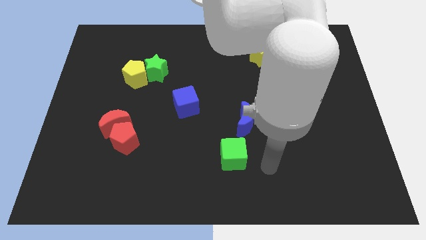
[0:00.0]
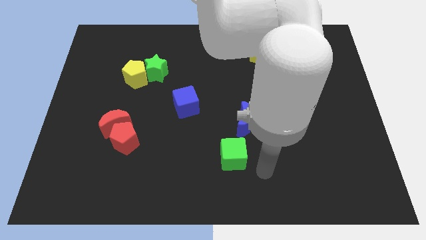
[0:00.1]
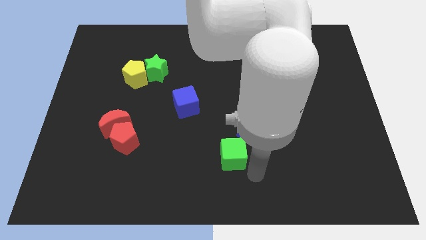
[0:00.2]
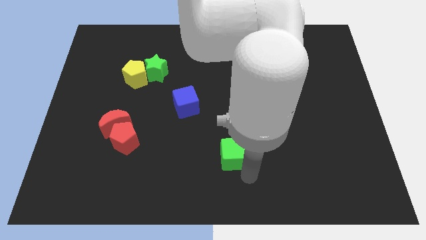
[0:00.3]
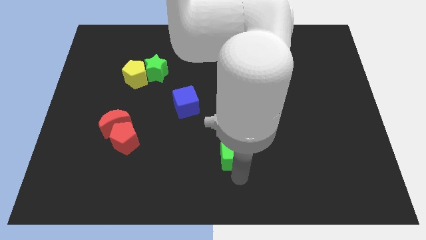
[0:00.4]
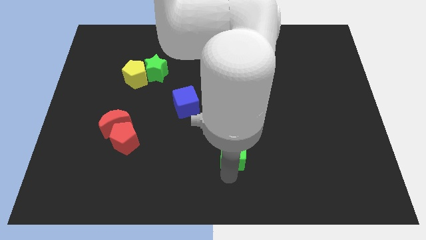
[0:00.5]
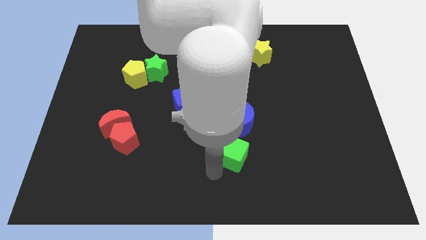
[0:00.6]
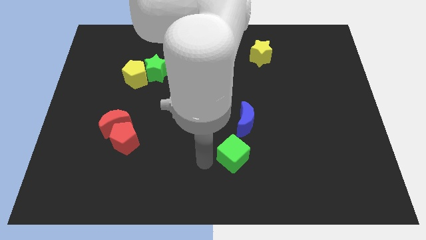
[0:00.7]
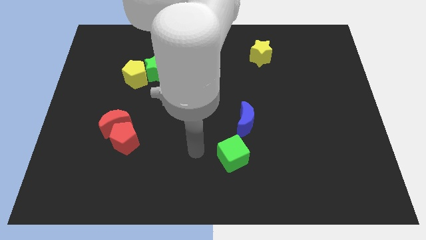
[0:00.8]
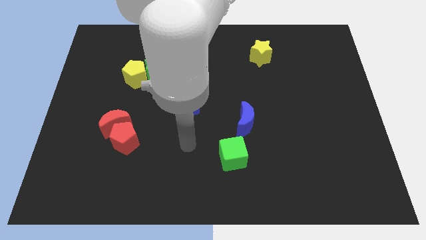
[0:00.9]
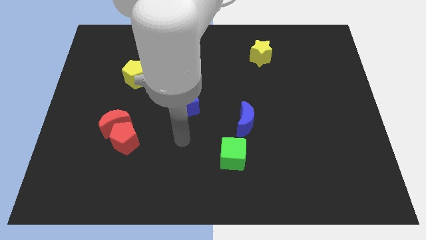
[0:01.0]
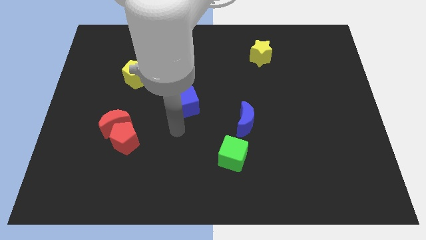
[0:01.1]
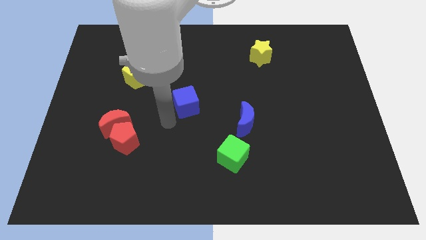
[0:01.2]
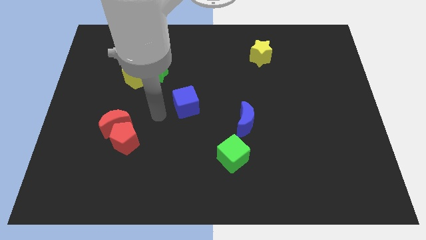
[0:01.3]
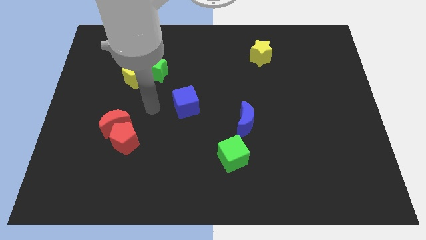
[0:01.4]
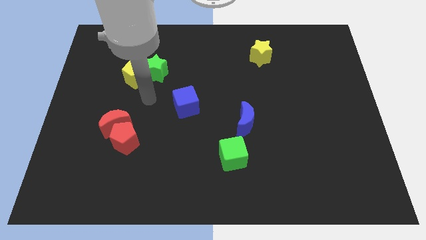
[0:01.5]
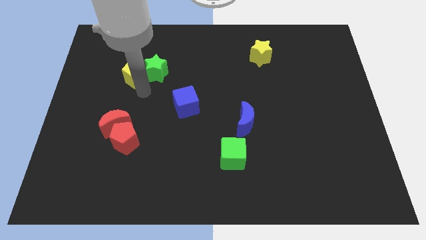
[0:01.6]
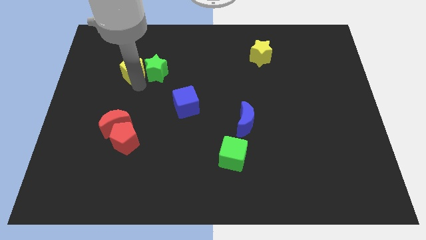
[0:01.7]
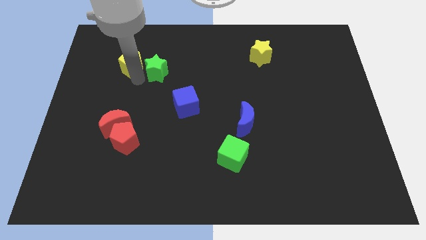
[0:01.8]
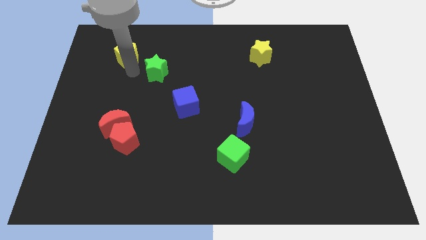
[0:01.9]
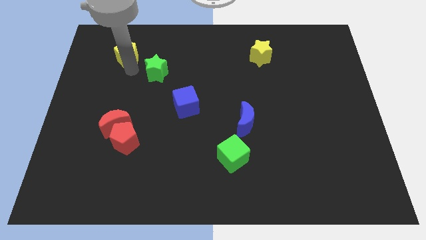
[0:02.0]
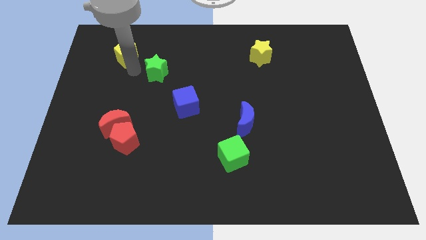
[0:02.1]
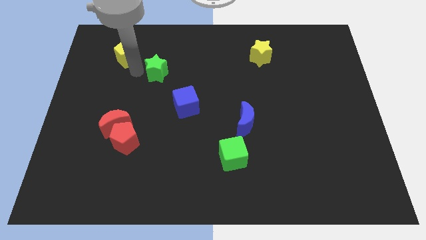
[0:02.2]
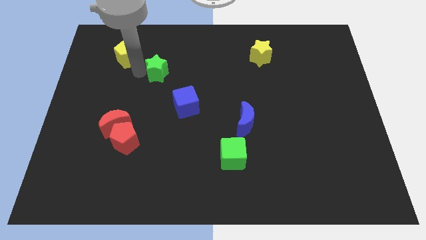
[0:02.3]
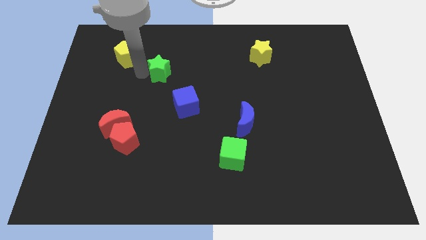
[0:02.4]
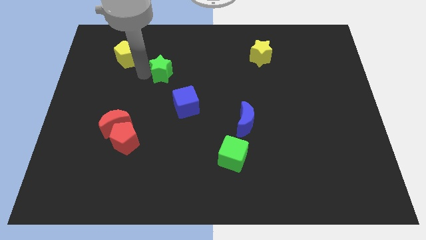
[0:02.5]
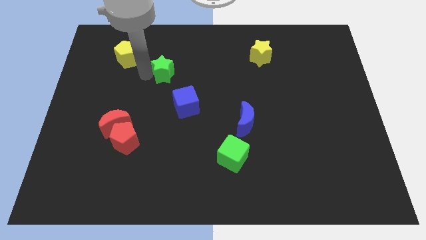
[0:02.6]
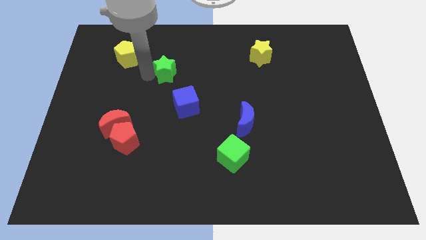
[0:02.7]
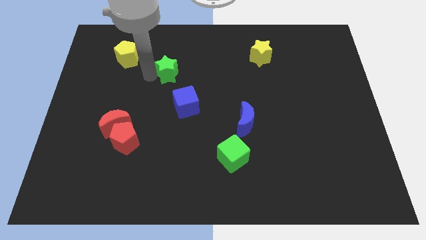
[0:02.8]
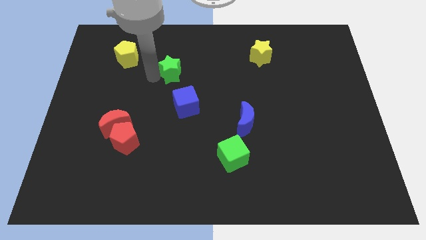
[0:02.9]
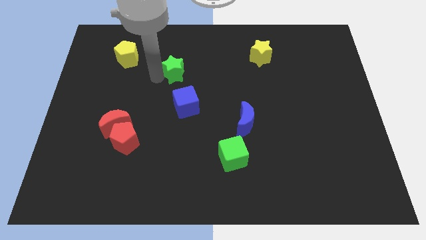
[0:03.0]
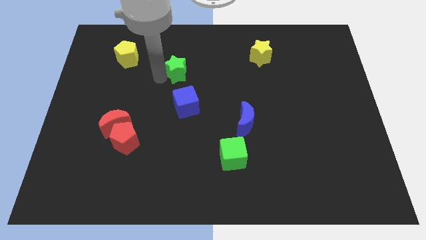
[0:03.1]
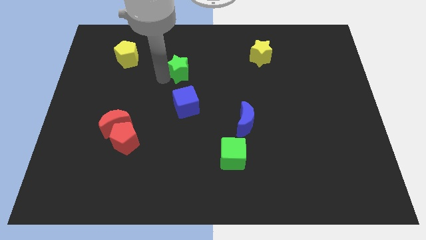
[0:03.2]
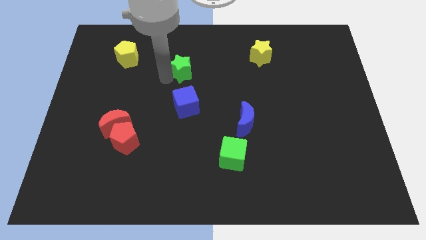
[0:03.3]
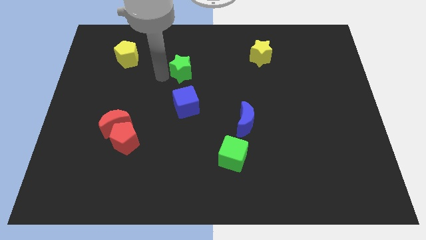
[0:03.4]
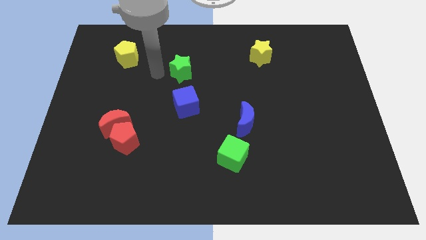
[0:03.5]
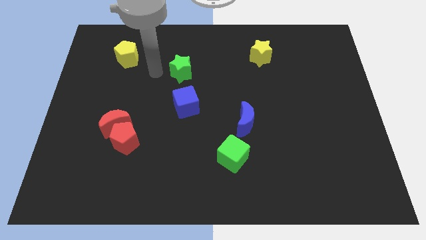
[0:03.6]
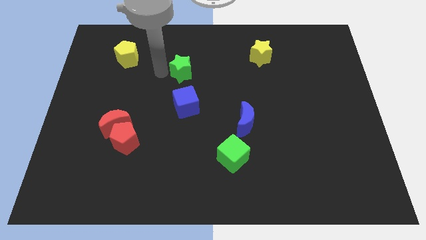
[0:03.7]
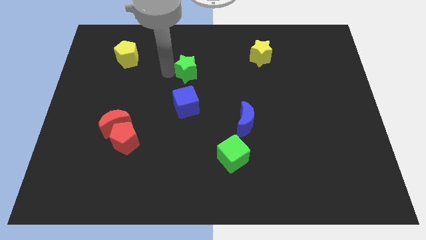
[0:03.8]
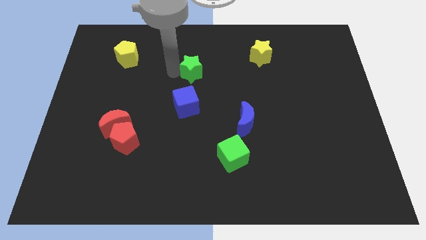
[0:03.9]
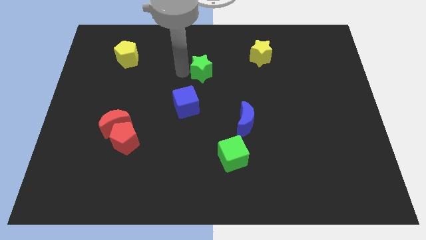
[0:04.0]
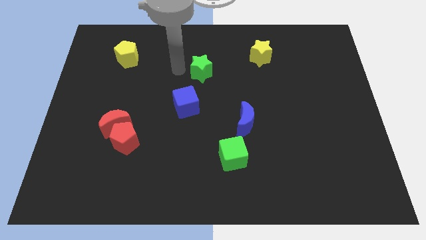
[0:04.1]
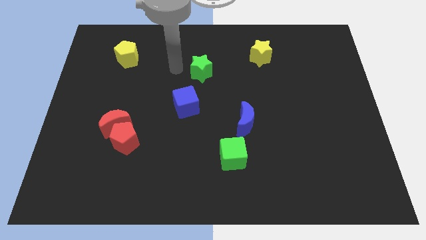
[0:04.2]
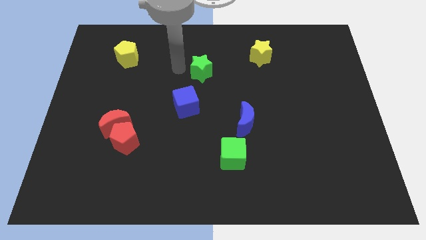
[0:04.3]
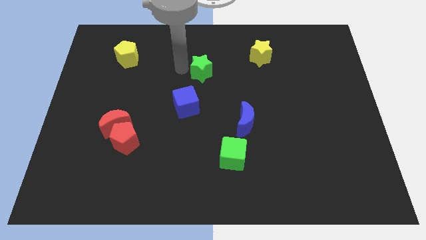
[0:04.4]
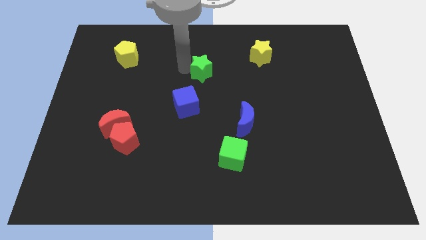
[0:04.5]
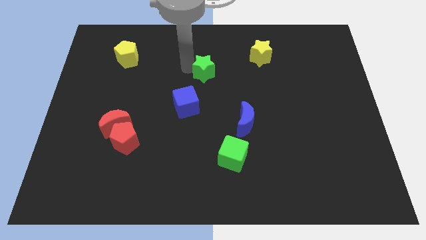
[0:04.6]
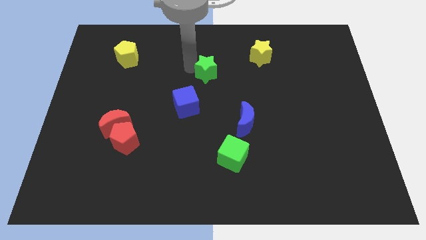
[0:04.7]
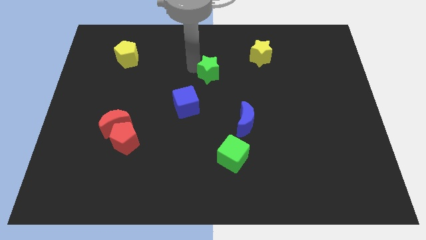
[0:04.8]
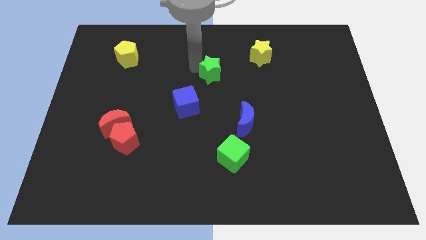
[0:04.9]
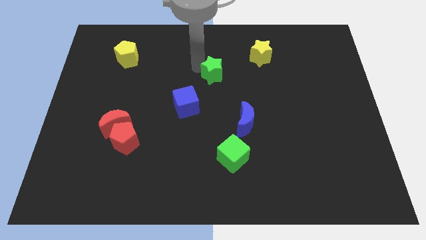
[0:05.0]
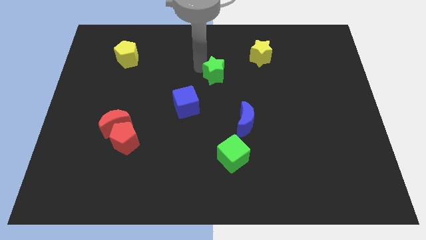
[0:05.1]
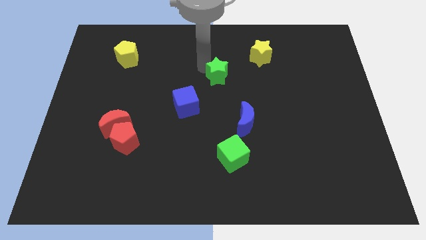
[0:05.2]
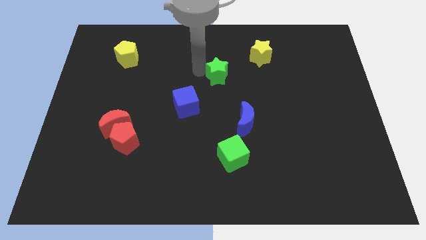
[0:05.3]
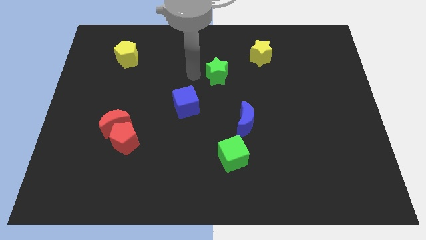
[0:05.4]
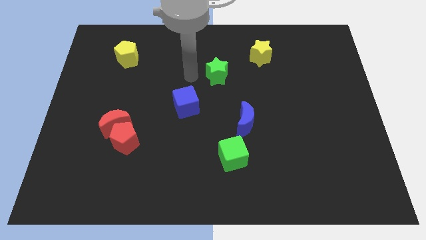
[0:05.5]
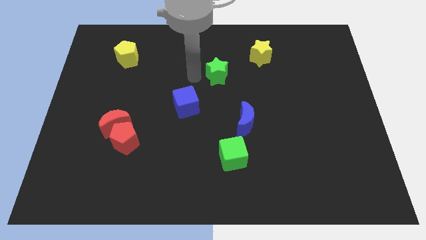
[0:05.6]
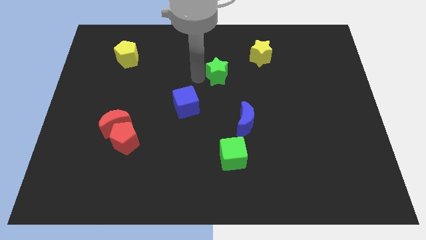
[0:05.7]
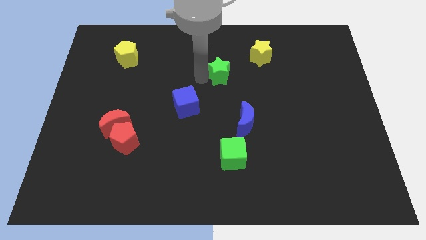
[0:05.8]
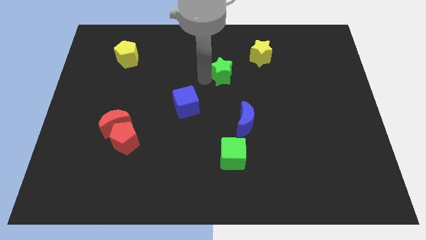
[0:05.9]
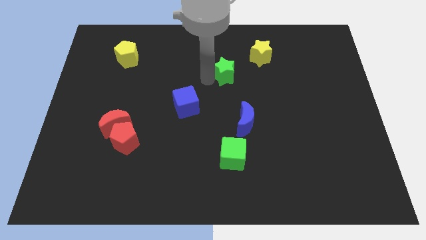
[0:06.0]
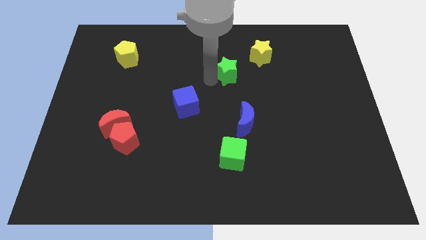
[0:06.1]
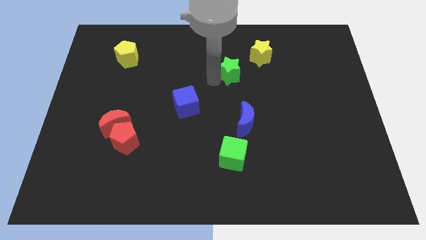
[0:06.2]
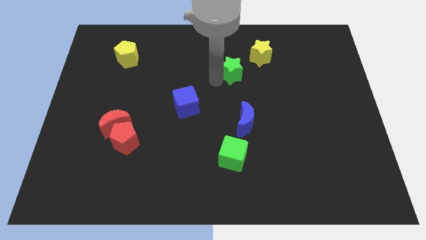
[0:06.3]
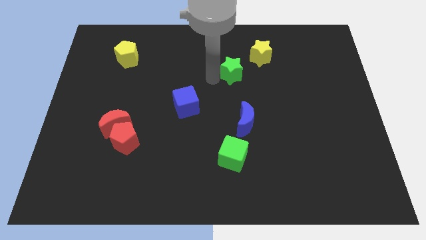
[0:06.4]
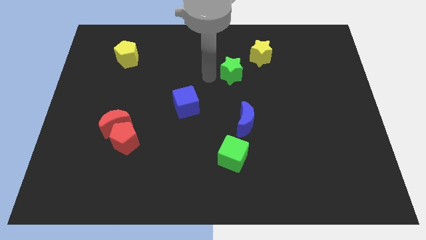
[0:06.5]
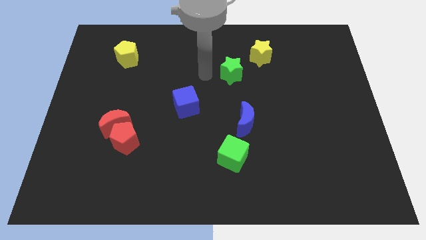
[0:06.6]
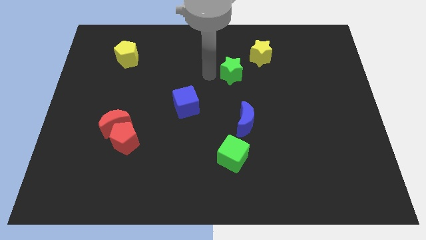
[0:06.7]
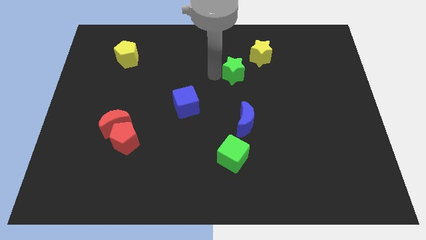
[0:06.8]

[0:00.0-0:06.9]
push the green star to the right

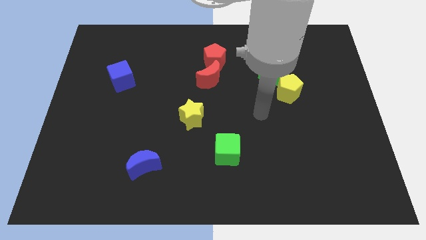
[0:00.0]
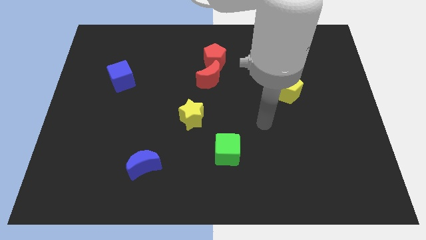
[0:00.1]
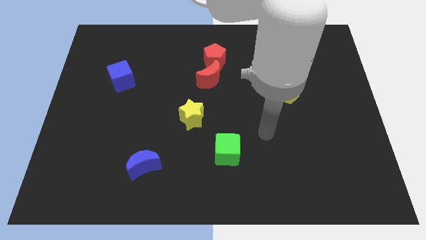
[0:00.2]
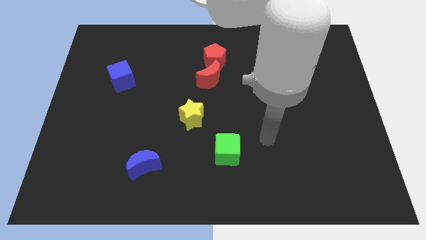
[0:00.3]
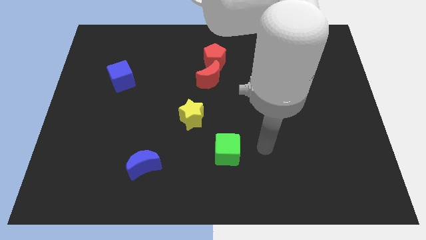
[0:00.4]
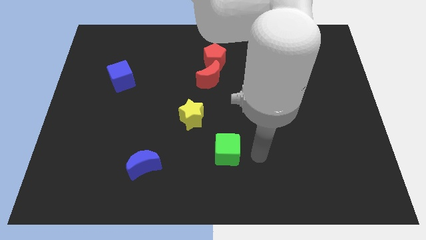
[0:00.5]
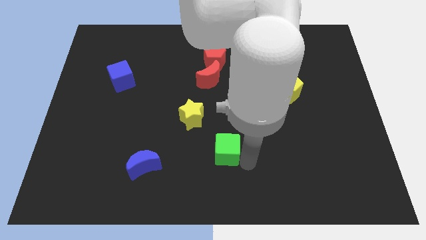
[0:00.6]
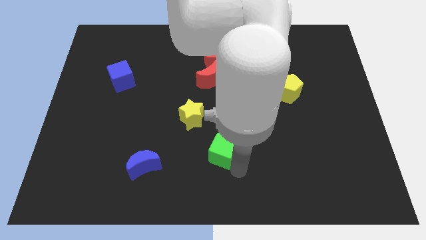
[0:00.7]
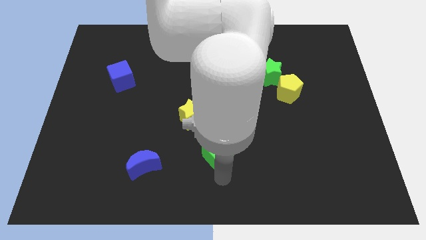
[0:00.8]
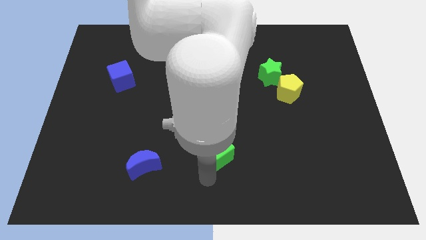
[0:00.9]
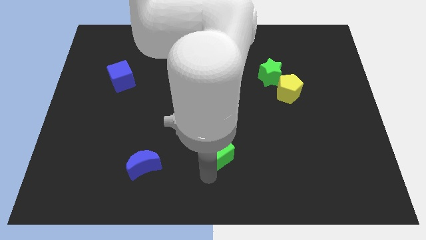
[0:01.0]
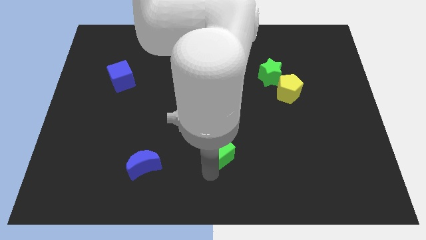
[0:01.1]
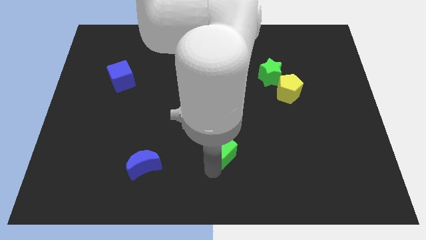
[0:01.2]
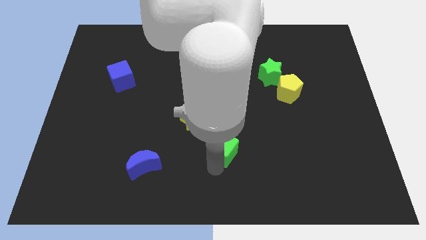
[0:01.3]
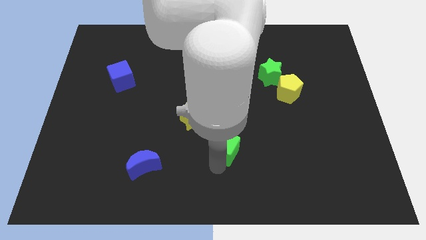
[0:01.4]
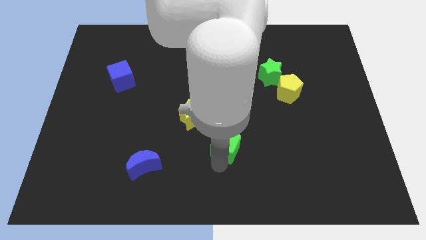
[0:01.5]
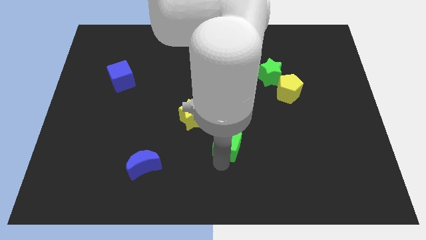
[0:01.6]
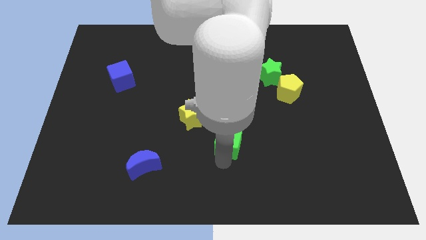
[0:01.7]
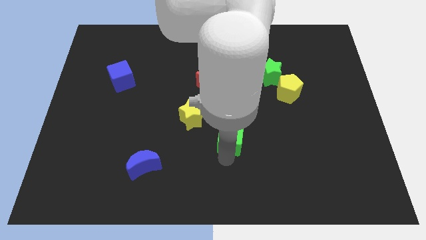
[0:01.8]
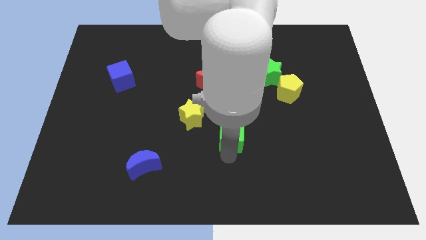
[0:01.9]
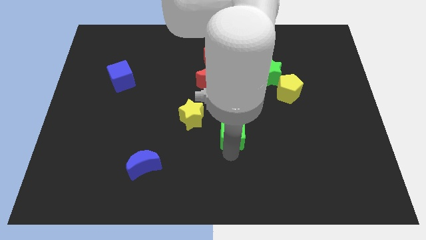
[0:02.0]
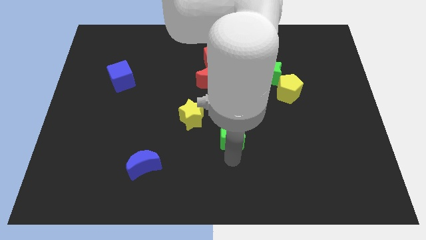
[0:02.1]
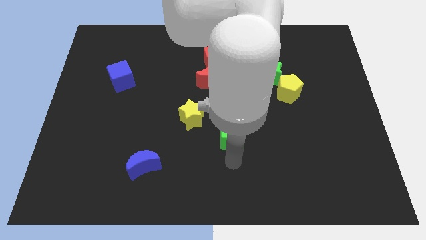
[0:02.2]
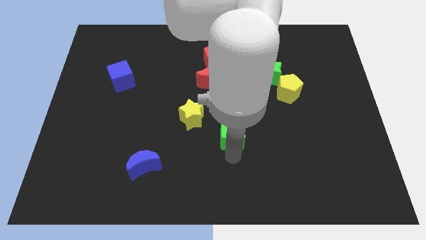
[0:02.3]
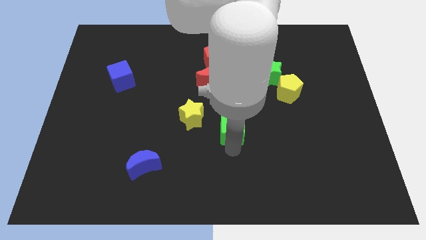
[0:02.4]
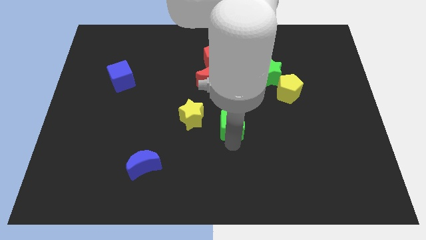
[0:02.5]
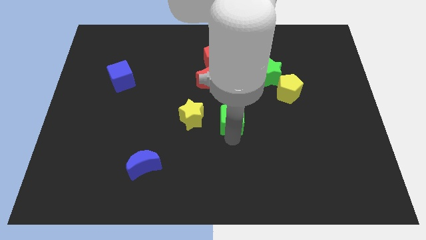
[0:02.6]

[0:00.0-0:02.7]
slightly push the green cube up
